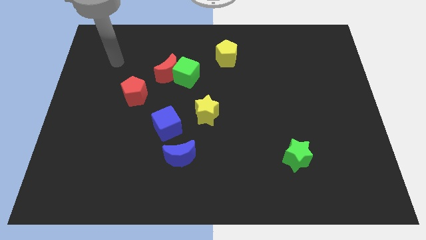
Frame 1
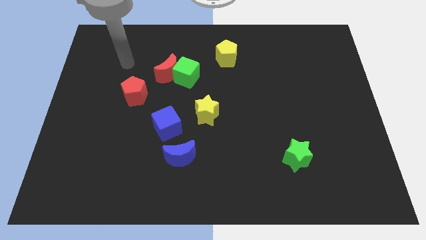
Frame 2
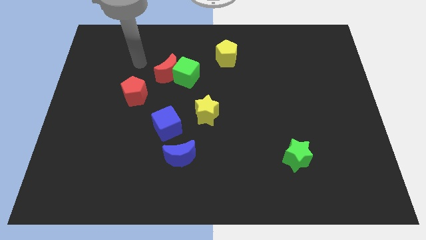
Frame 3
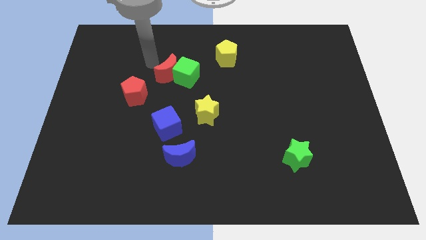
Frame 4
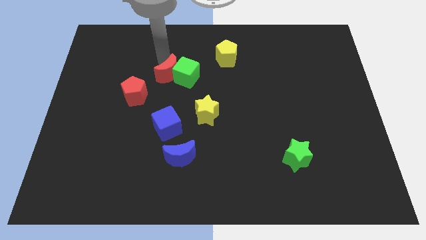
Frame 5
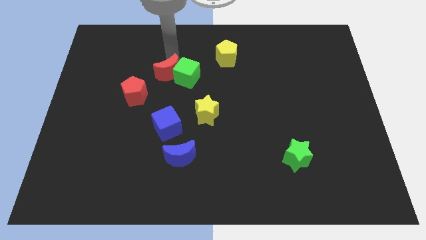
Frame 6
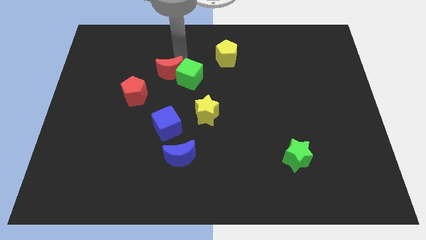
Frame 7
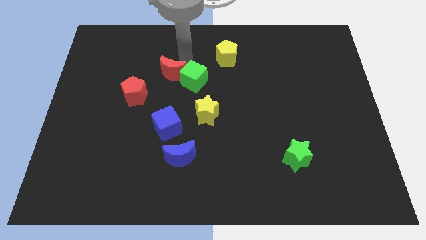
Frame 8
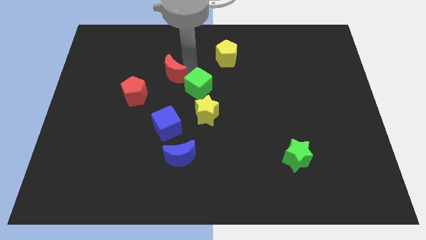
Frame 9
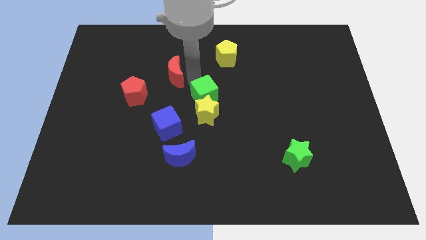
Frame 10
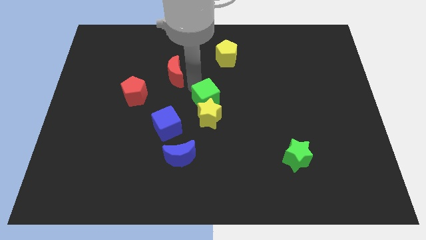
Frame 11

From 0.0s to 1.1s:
pull the red moon apart from the green cube

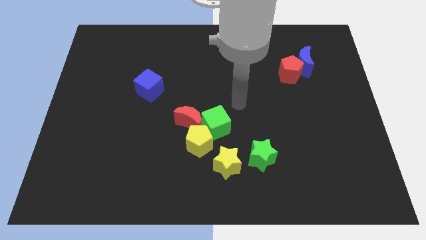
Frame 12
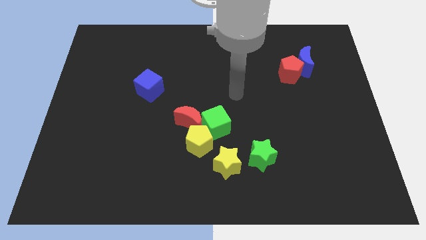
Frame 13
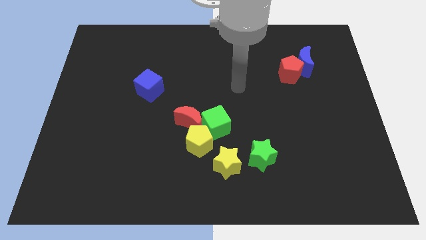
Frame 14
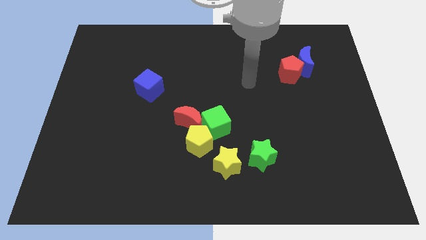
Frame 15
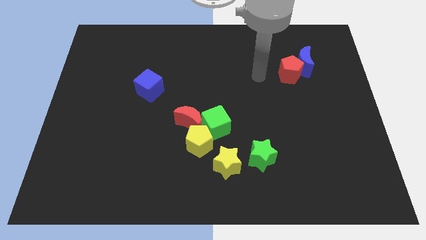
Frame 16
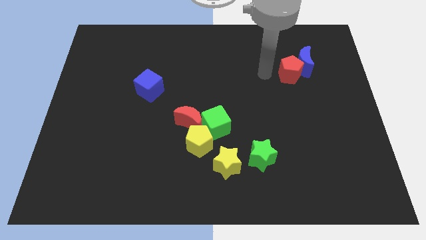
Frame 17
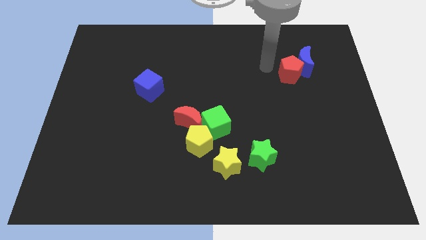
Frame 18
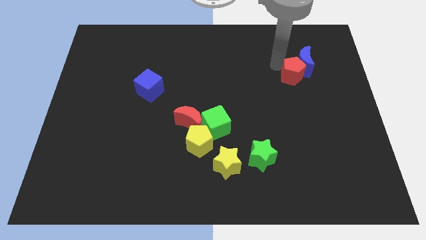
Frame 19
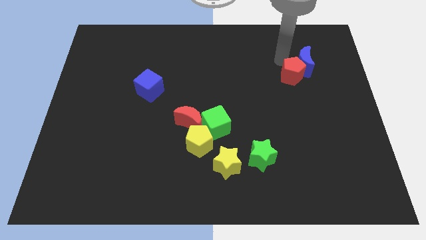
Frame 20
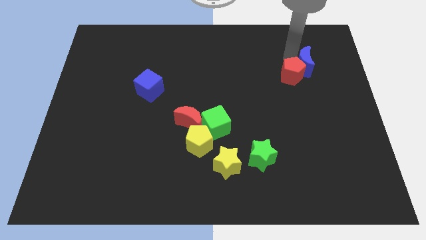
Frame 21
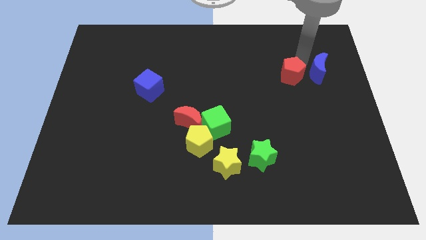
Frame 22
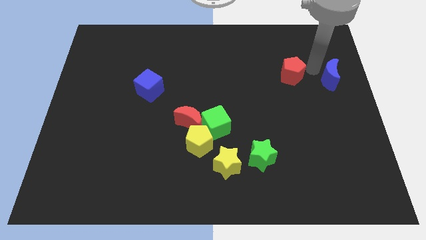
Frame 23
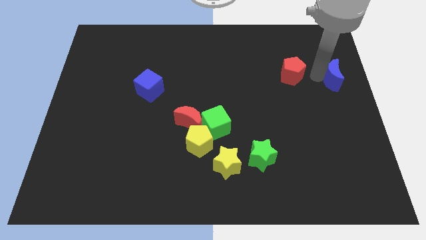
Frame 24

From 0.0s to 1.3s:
separate the red pentagon from the blue moon

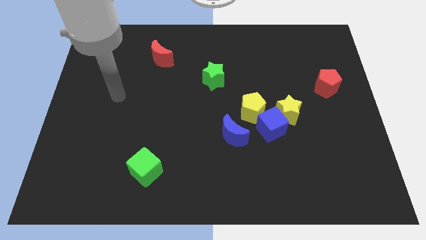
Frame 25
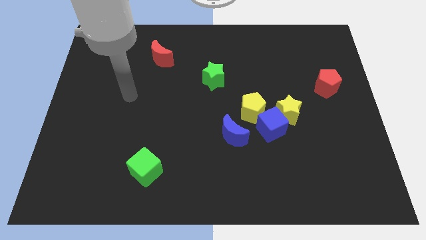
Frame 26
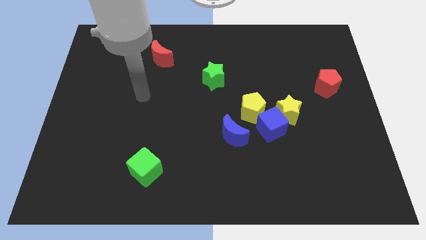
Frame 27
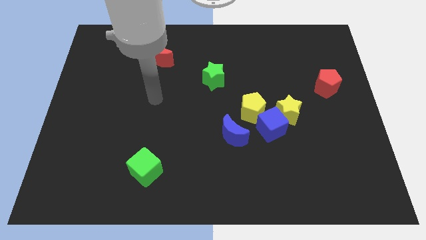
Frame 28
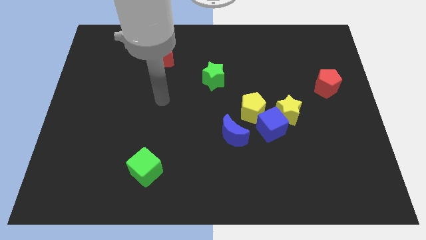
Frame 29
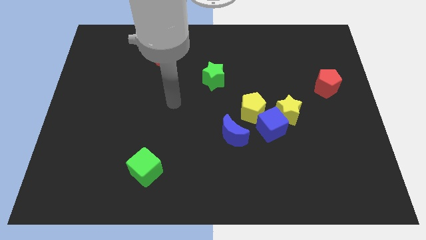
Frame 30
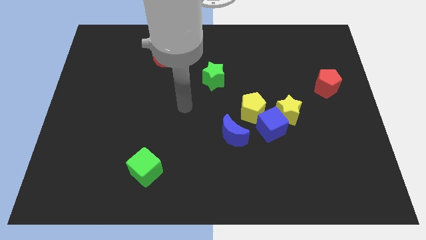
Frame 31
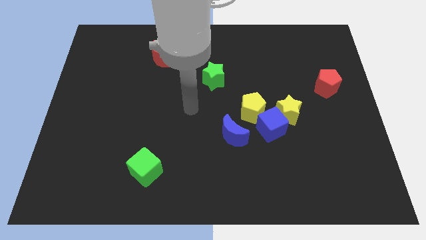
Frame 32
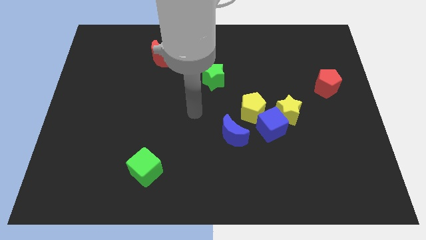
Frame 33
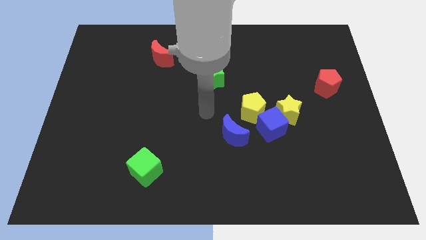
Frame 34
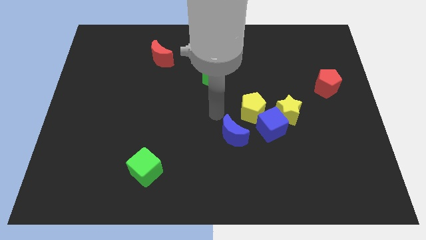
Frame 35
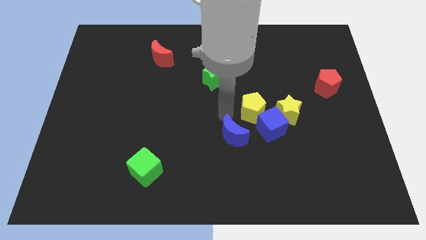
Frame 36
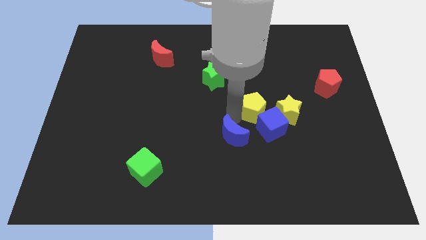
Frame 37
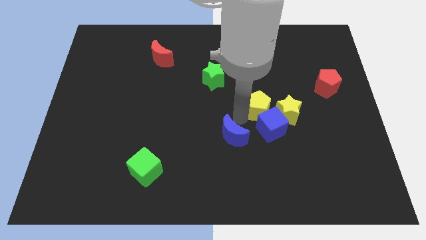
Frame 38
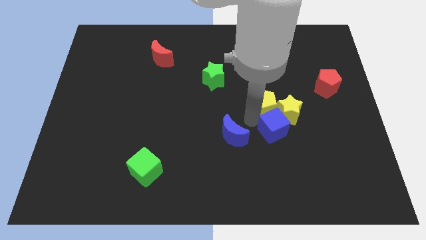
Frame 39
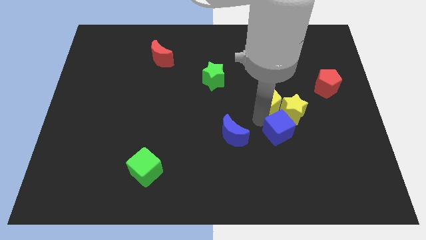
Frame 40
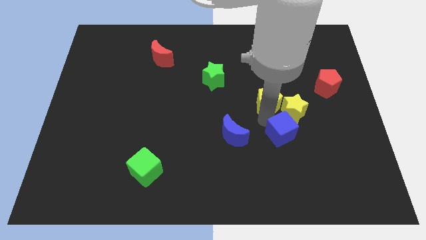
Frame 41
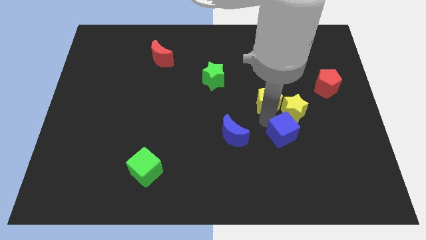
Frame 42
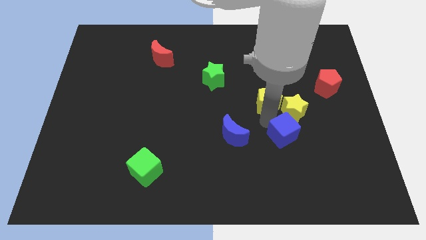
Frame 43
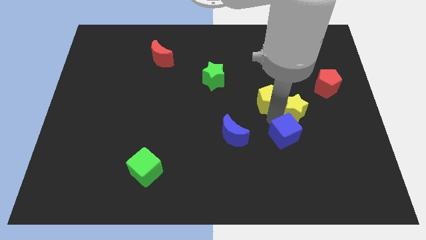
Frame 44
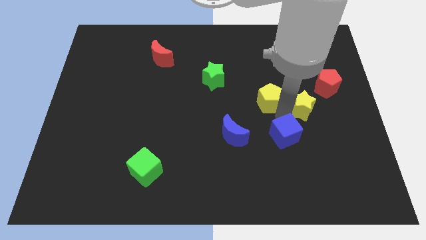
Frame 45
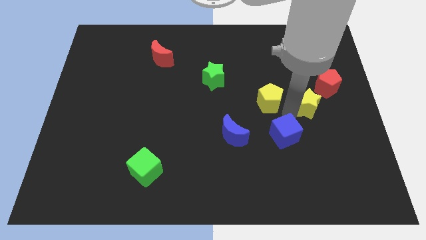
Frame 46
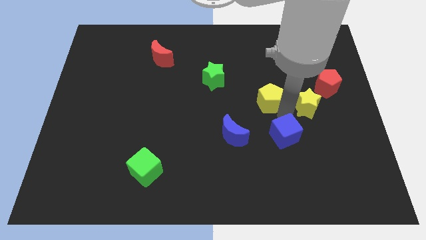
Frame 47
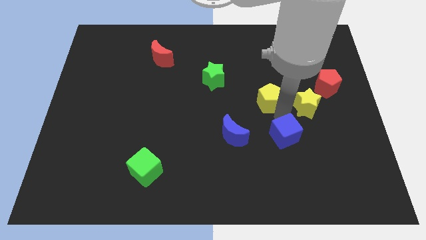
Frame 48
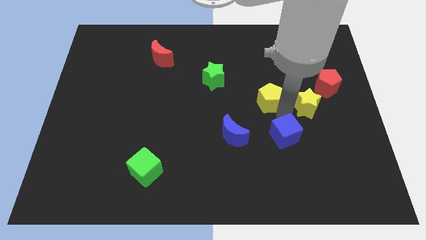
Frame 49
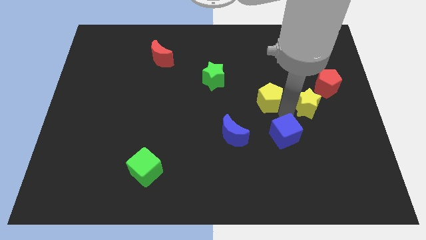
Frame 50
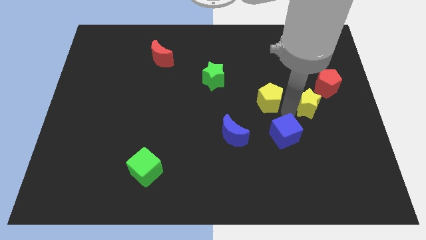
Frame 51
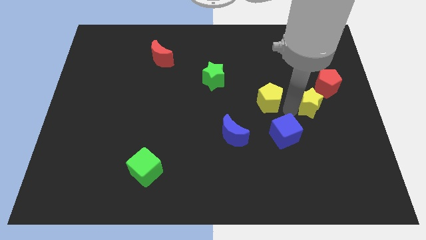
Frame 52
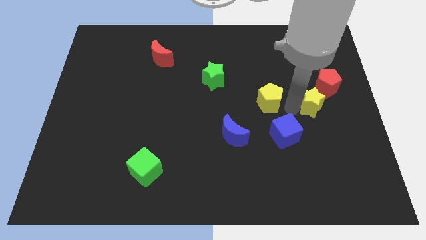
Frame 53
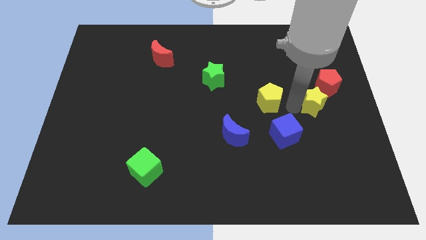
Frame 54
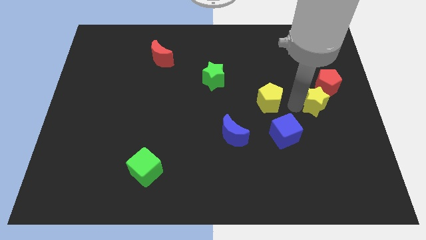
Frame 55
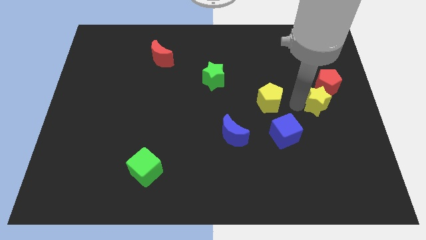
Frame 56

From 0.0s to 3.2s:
pull the yellow star apart from the blue cube and yellow pentagon

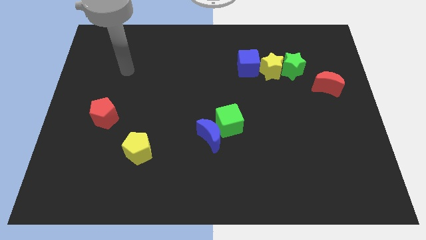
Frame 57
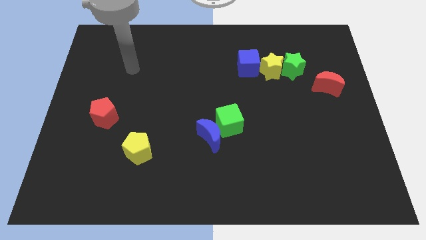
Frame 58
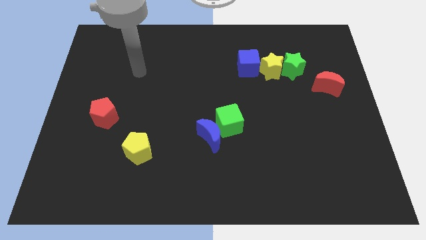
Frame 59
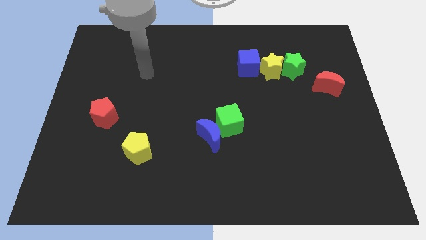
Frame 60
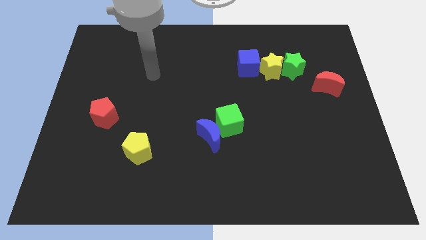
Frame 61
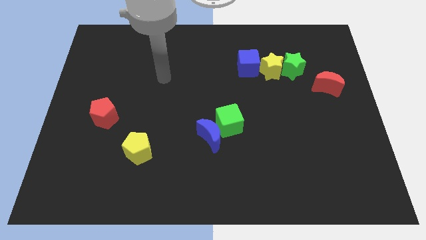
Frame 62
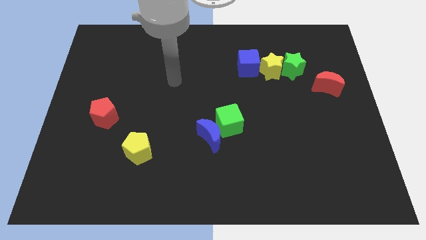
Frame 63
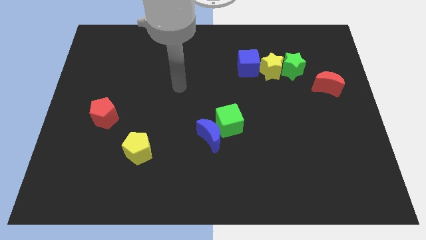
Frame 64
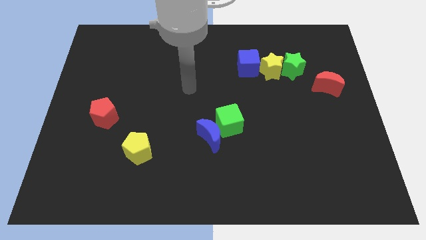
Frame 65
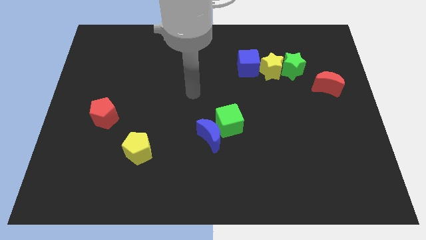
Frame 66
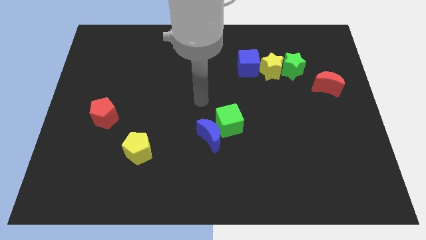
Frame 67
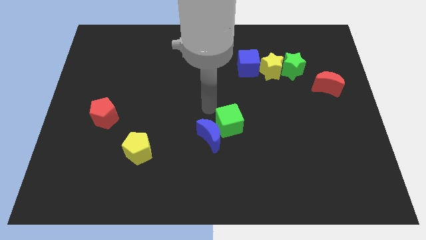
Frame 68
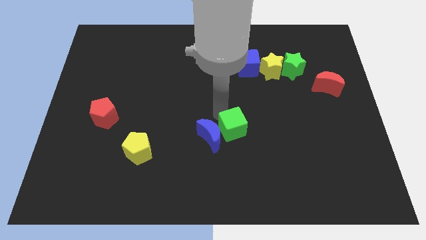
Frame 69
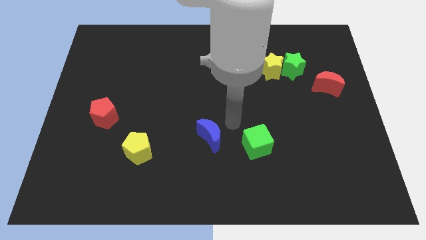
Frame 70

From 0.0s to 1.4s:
move the blue moon away from the green cube

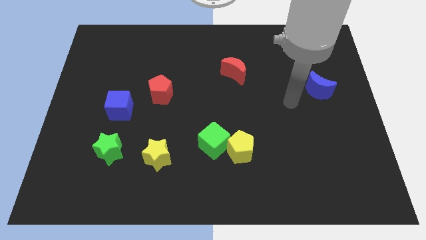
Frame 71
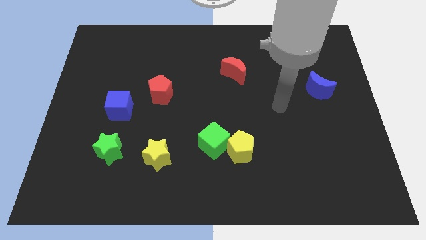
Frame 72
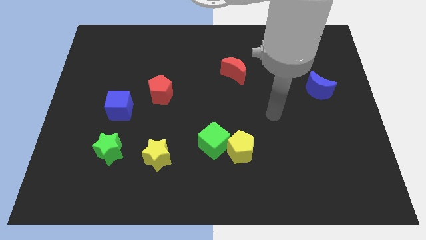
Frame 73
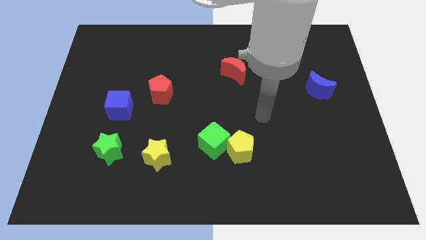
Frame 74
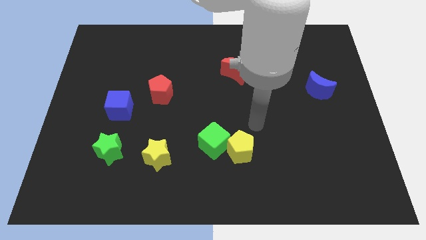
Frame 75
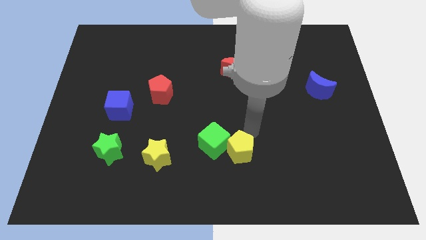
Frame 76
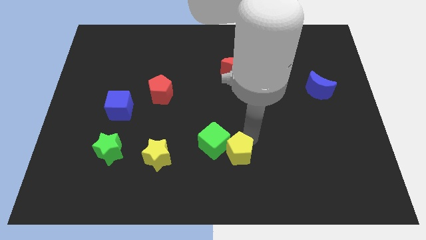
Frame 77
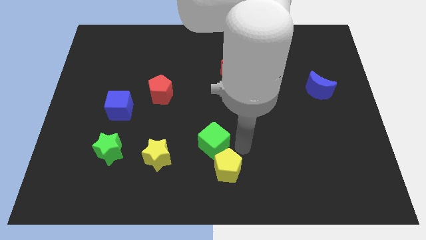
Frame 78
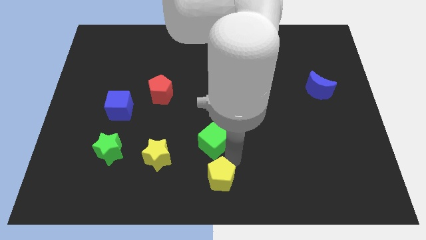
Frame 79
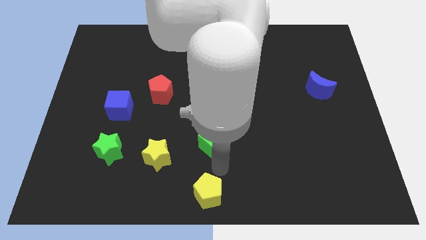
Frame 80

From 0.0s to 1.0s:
pull the green cube apart from the yellow pentagon

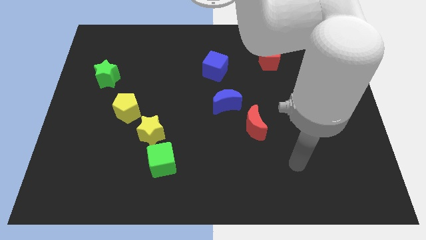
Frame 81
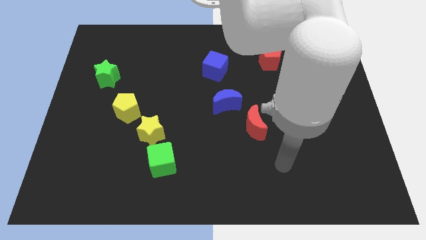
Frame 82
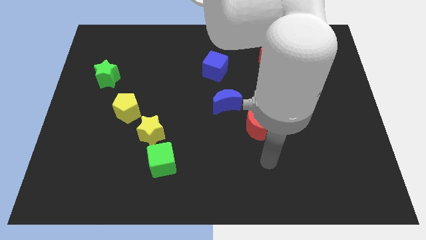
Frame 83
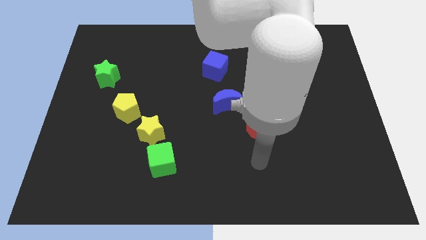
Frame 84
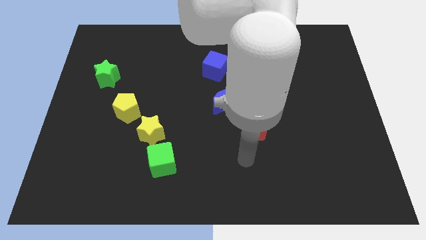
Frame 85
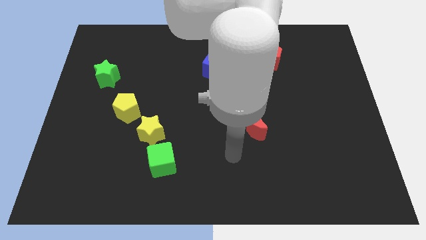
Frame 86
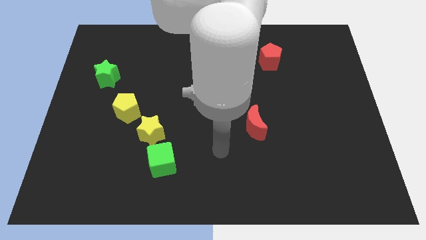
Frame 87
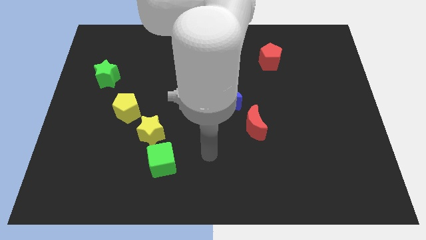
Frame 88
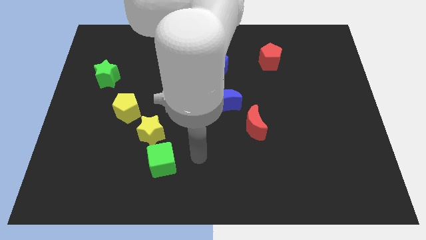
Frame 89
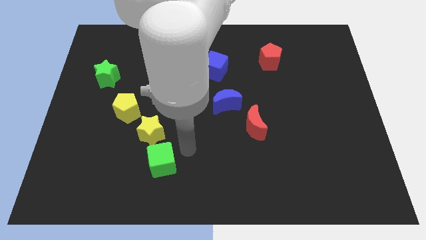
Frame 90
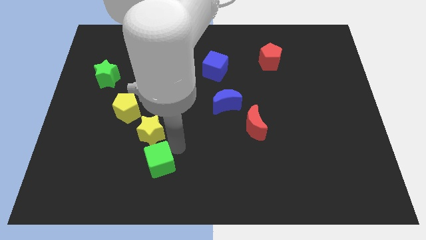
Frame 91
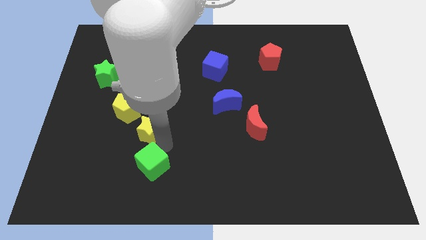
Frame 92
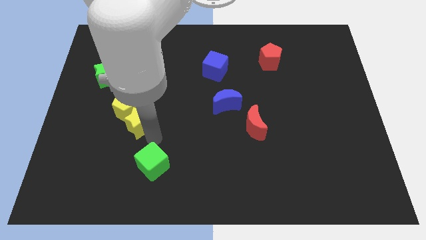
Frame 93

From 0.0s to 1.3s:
pull the green cube apart from the yellow star
